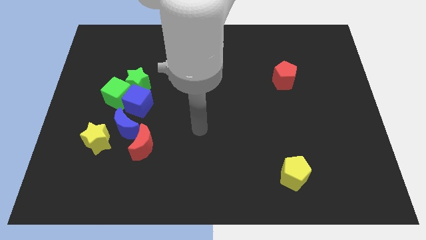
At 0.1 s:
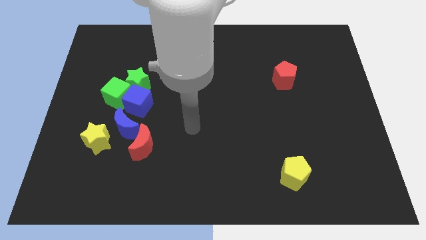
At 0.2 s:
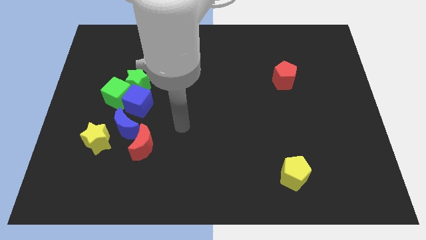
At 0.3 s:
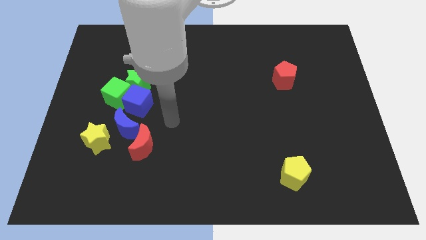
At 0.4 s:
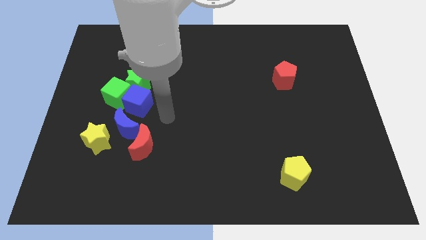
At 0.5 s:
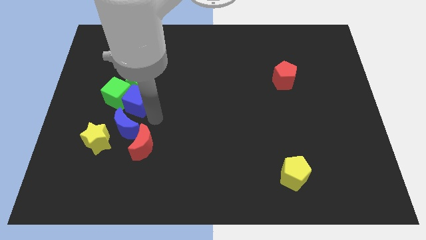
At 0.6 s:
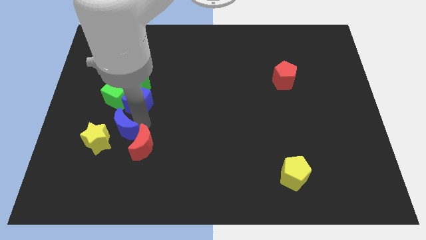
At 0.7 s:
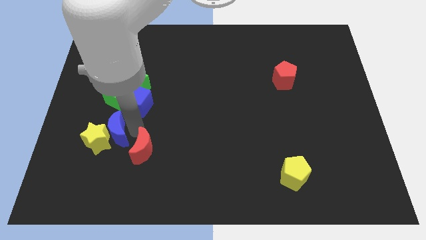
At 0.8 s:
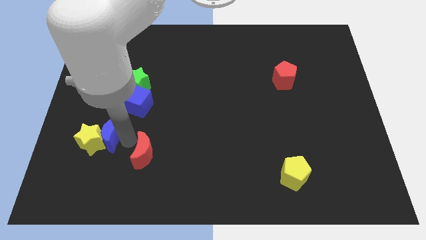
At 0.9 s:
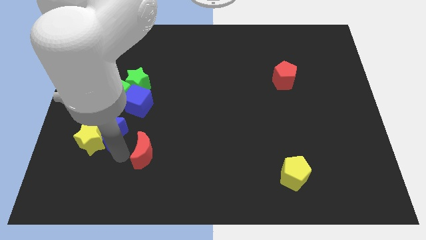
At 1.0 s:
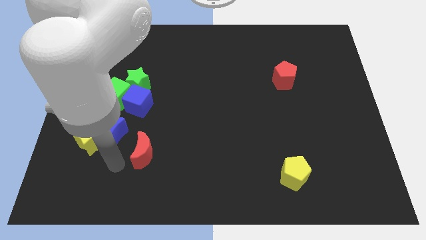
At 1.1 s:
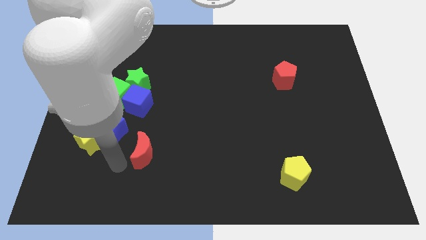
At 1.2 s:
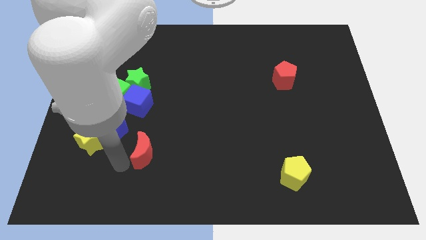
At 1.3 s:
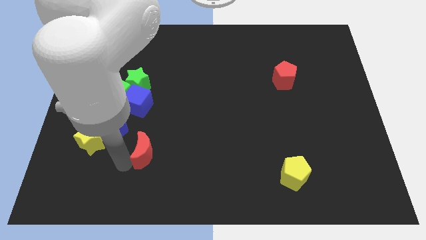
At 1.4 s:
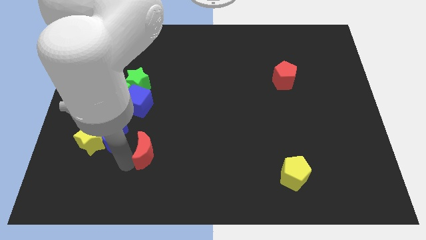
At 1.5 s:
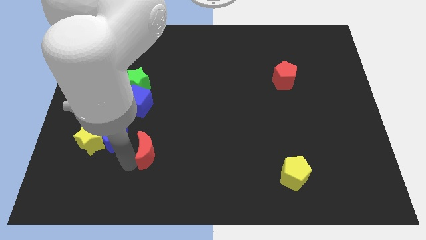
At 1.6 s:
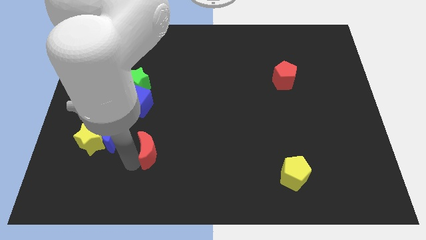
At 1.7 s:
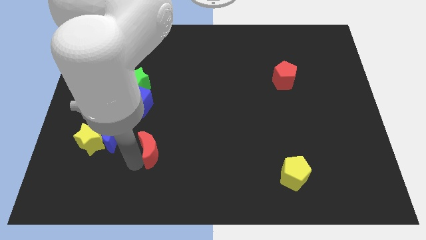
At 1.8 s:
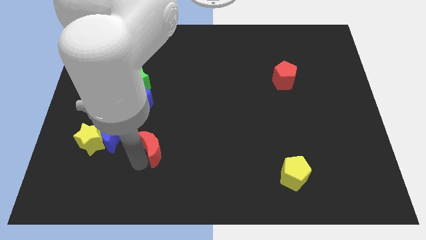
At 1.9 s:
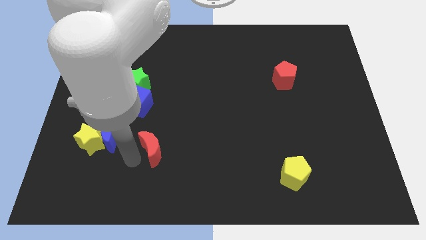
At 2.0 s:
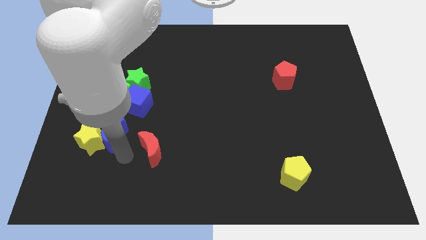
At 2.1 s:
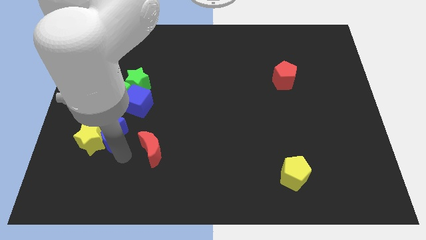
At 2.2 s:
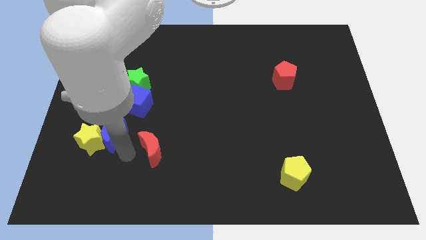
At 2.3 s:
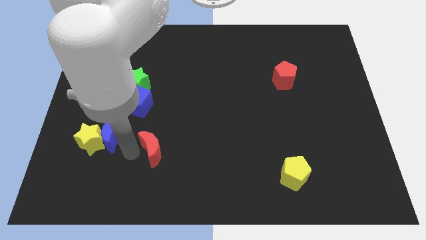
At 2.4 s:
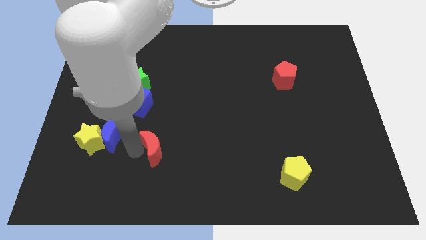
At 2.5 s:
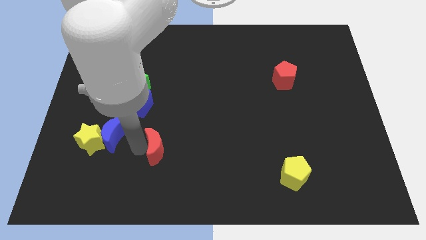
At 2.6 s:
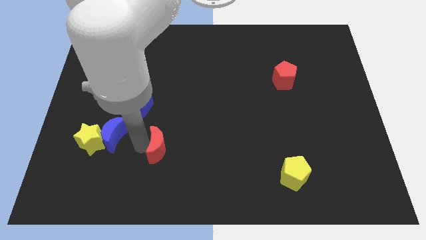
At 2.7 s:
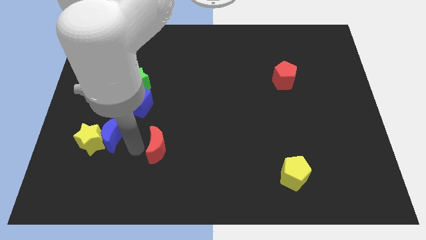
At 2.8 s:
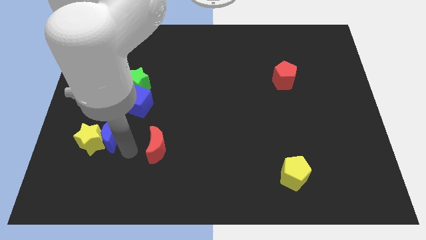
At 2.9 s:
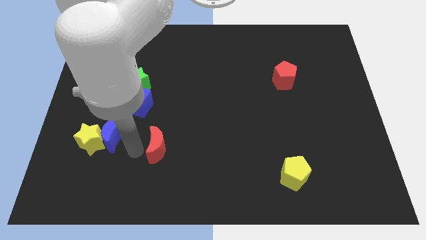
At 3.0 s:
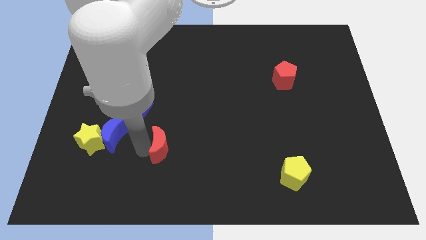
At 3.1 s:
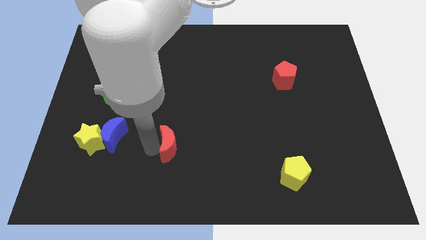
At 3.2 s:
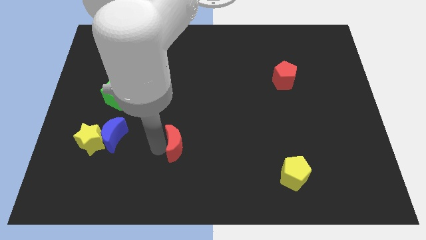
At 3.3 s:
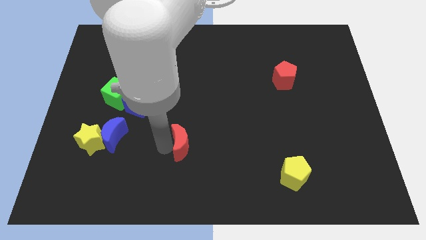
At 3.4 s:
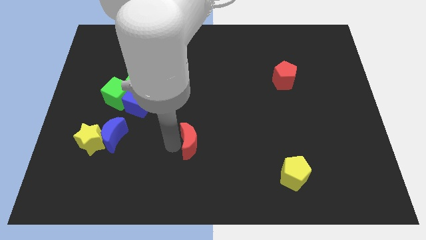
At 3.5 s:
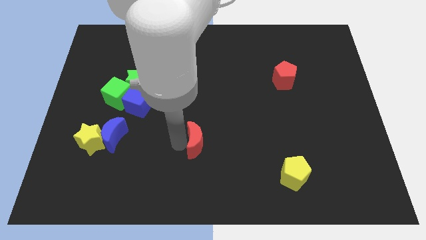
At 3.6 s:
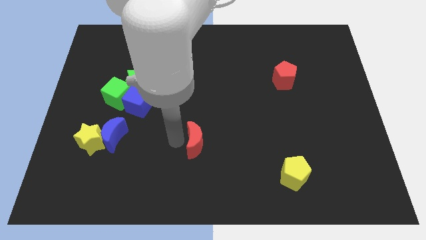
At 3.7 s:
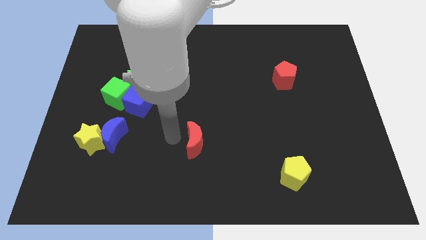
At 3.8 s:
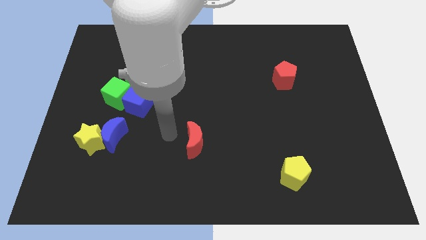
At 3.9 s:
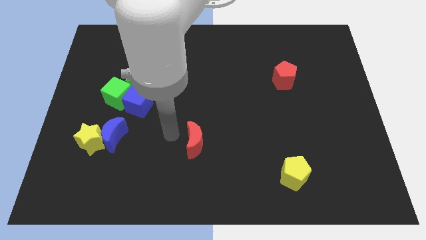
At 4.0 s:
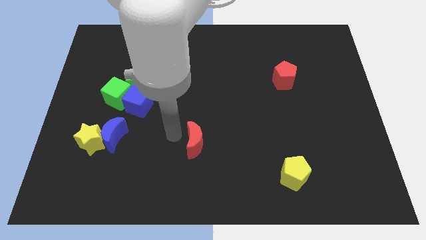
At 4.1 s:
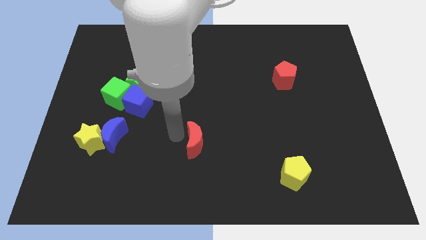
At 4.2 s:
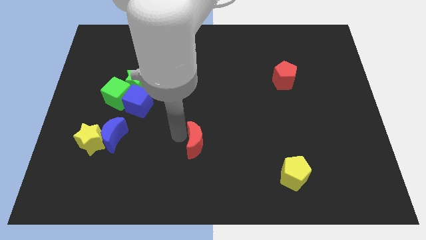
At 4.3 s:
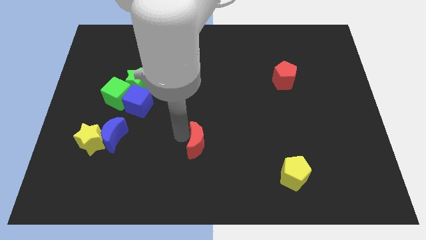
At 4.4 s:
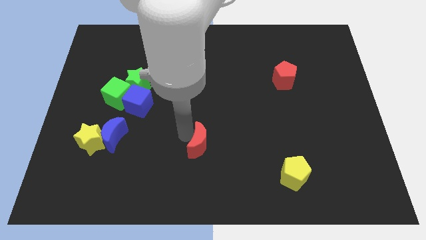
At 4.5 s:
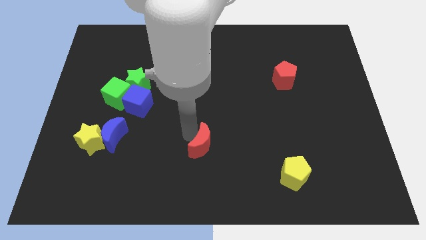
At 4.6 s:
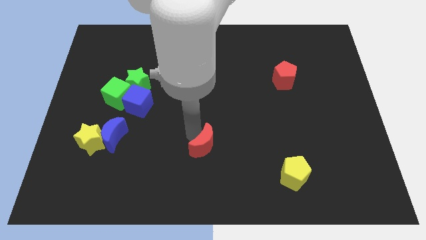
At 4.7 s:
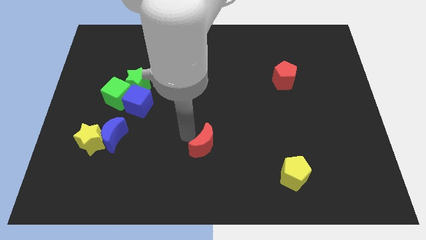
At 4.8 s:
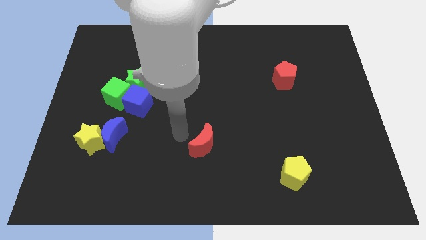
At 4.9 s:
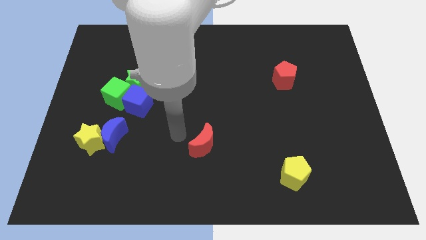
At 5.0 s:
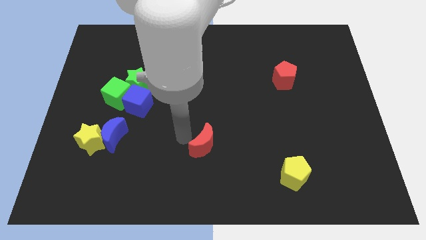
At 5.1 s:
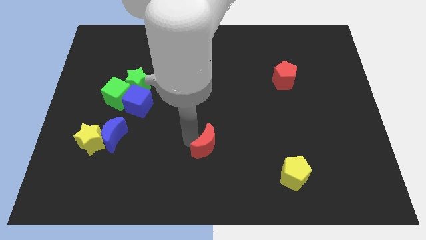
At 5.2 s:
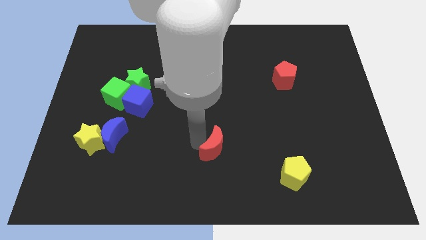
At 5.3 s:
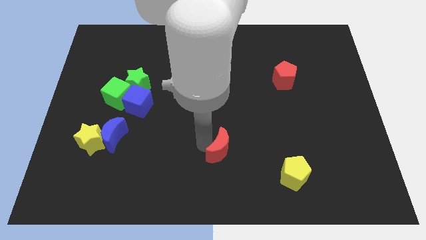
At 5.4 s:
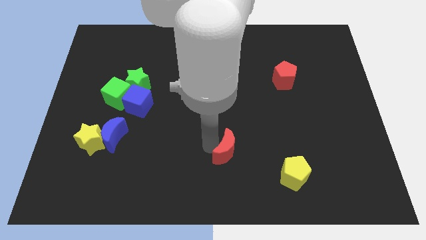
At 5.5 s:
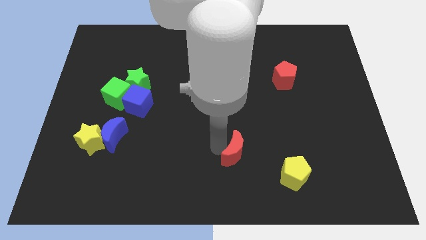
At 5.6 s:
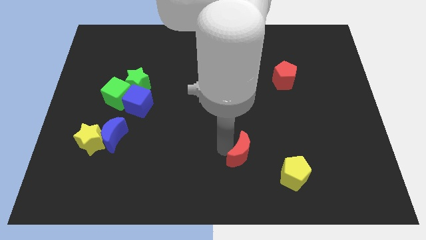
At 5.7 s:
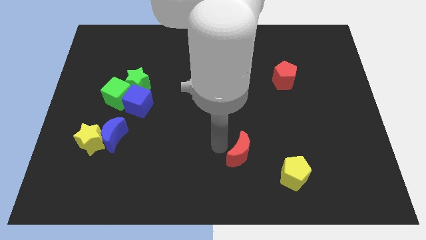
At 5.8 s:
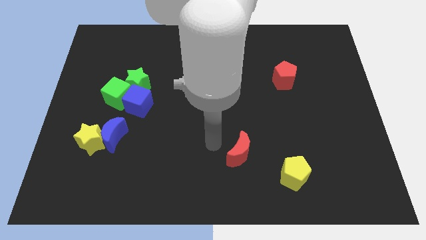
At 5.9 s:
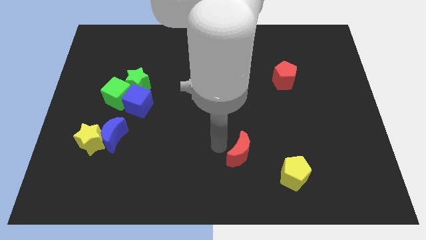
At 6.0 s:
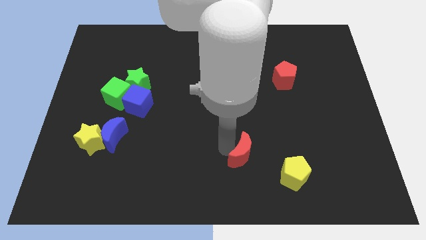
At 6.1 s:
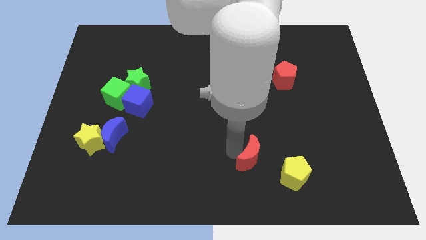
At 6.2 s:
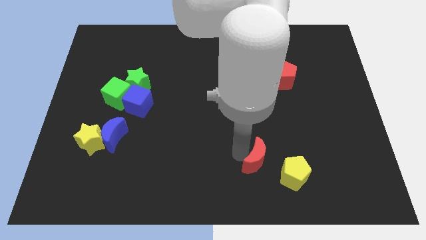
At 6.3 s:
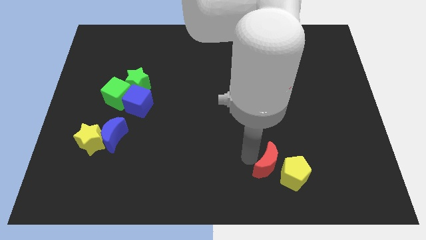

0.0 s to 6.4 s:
push the red moon close to the yellow pentagon
